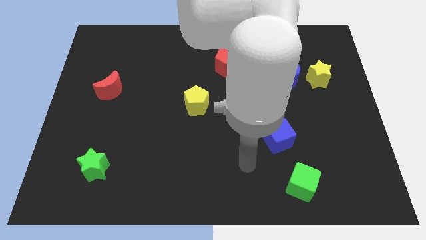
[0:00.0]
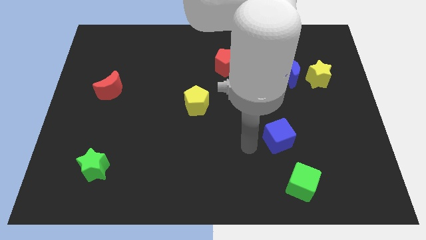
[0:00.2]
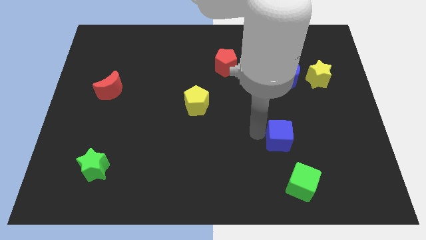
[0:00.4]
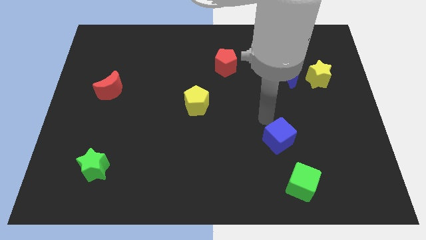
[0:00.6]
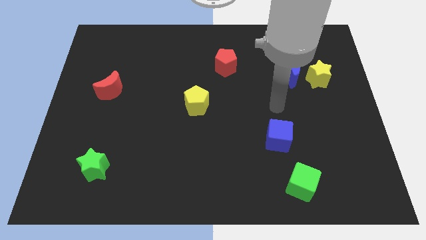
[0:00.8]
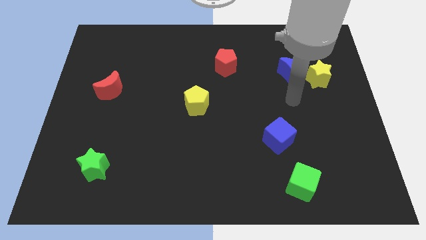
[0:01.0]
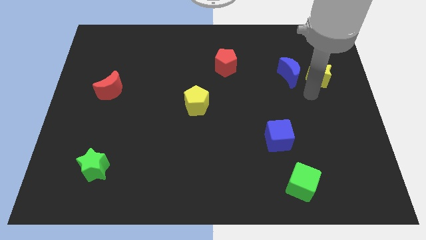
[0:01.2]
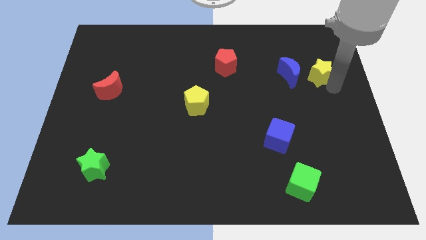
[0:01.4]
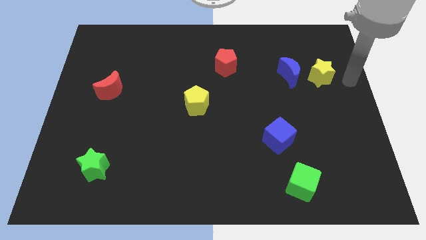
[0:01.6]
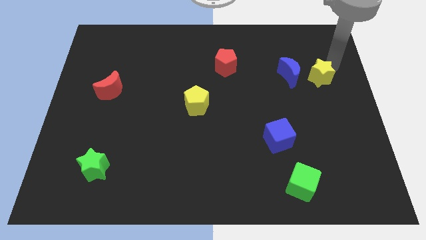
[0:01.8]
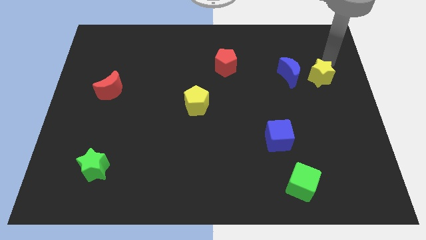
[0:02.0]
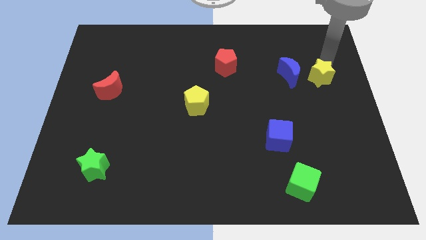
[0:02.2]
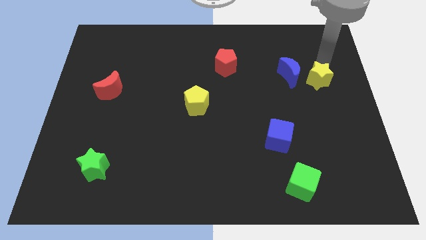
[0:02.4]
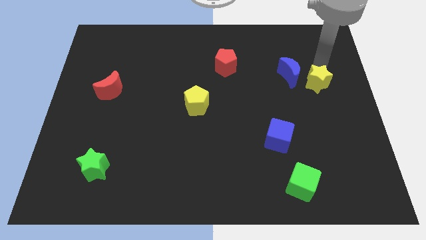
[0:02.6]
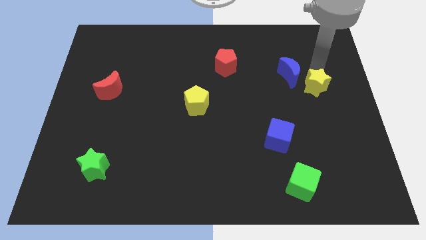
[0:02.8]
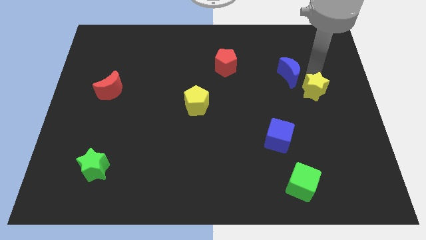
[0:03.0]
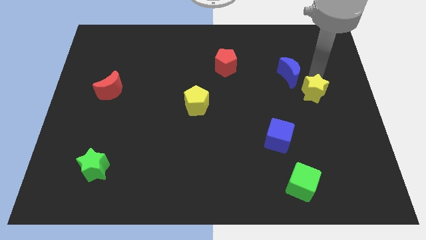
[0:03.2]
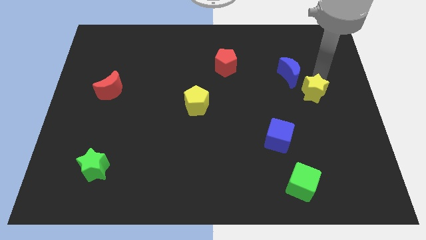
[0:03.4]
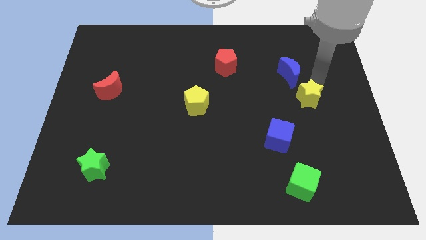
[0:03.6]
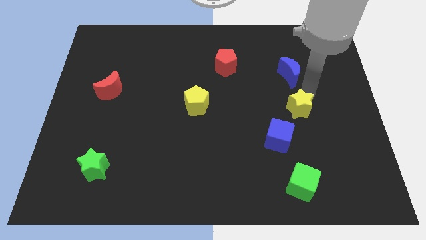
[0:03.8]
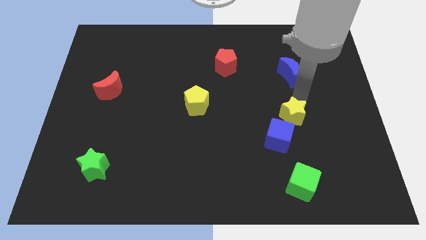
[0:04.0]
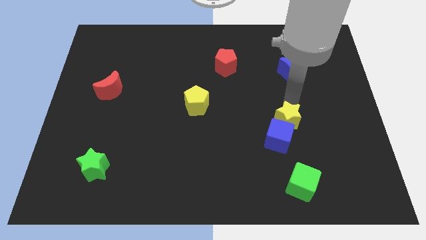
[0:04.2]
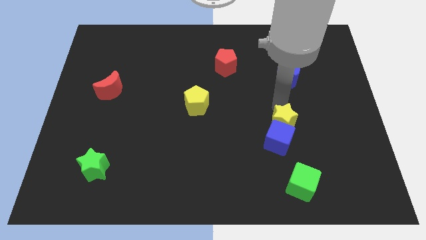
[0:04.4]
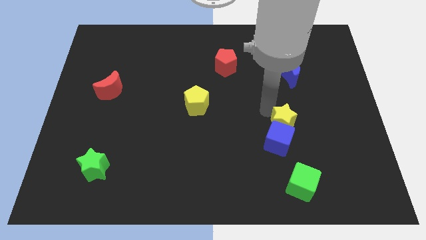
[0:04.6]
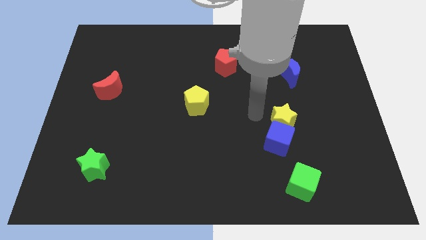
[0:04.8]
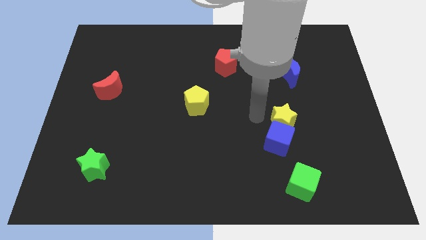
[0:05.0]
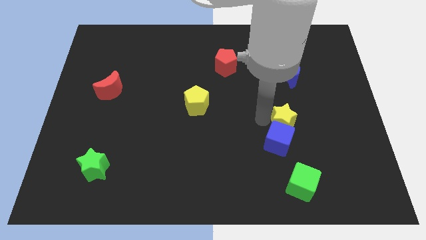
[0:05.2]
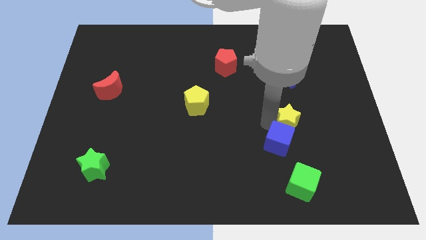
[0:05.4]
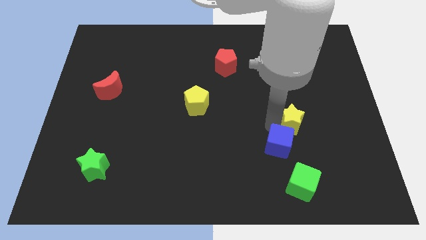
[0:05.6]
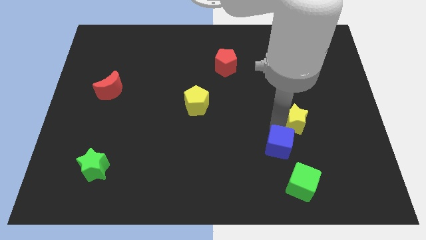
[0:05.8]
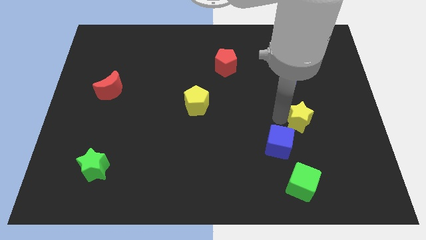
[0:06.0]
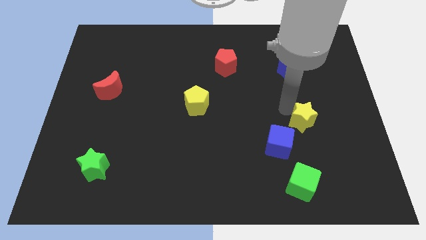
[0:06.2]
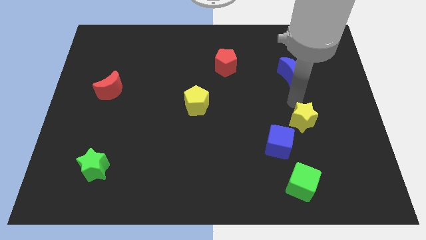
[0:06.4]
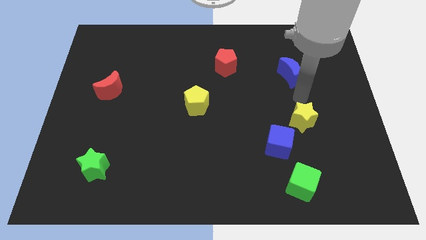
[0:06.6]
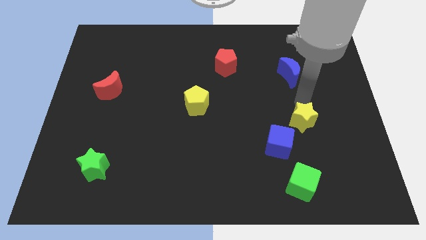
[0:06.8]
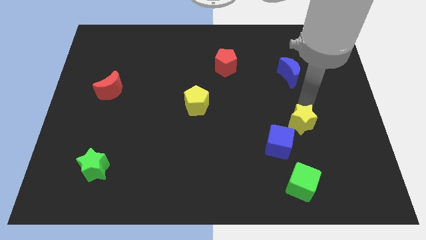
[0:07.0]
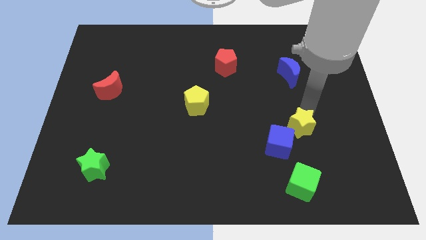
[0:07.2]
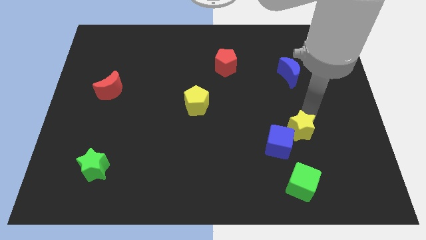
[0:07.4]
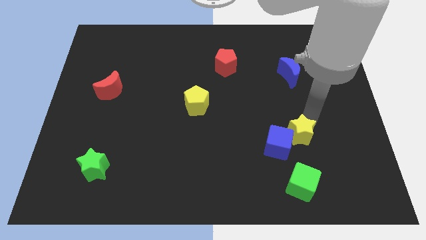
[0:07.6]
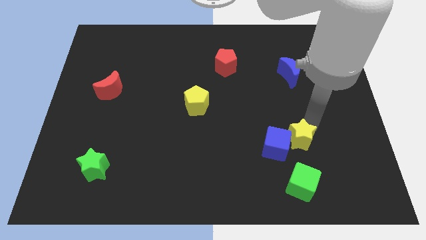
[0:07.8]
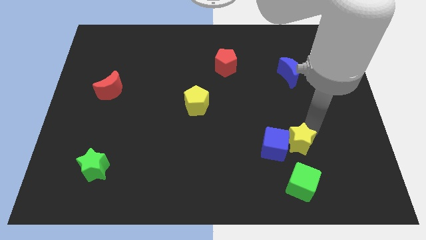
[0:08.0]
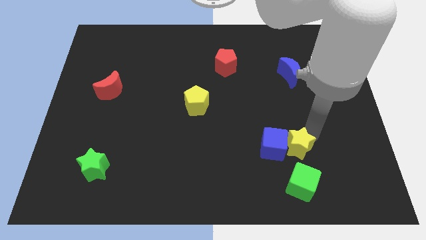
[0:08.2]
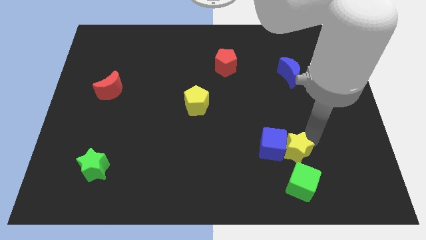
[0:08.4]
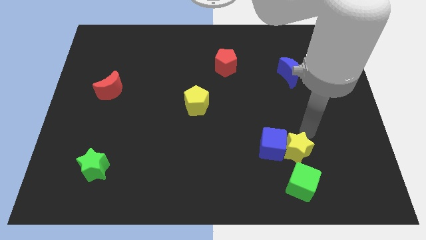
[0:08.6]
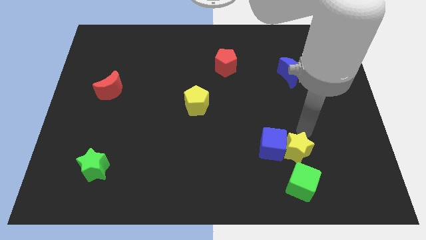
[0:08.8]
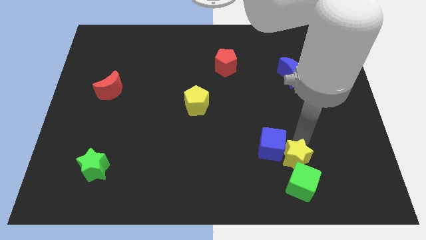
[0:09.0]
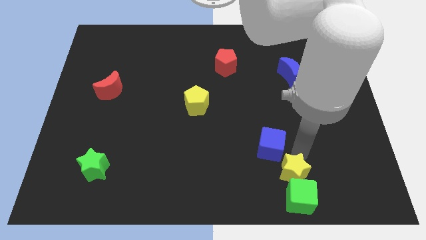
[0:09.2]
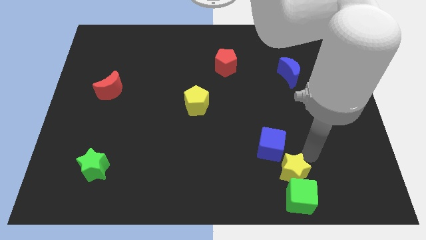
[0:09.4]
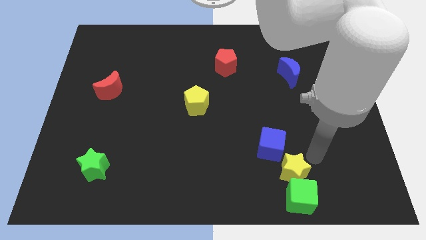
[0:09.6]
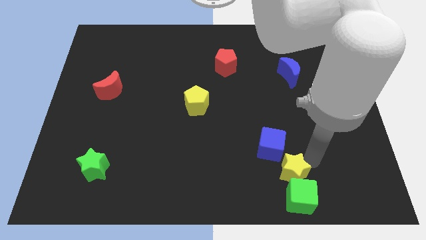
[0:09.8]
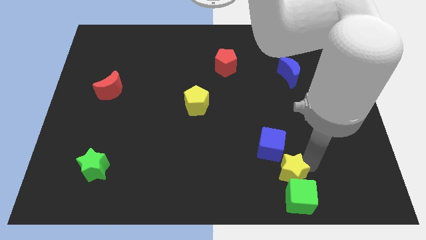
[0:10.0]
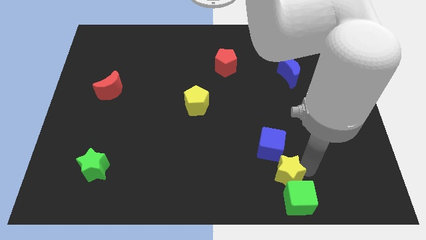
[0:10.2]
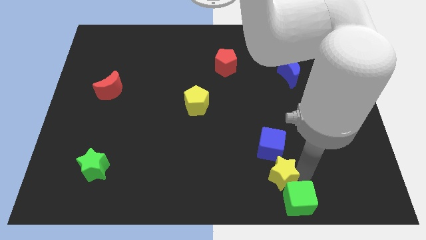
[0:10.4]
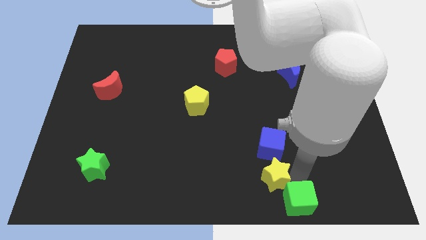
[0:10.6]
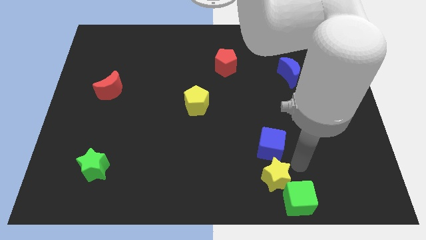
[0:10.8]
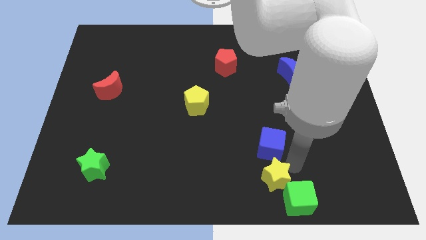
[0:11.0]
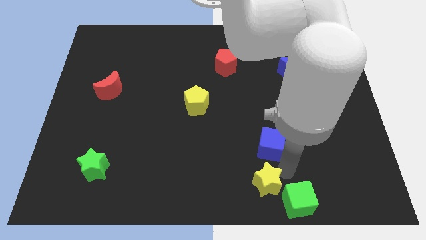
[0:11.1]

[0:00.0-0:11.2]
put the yellow star to the left side of the green cube

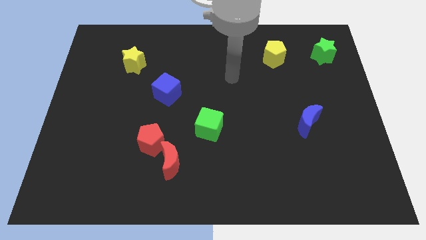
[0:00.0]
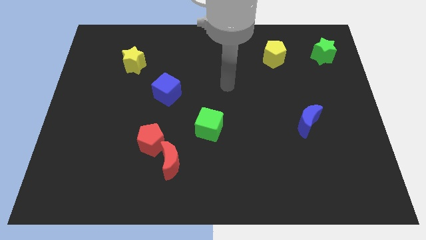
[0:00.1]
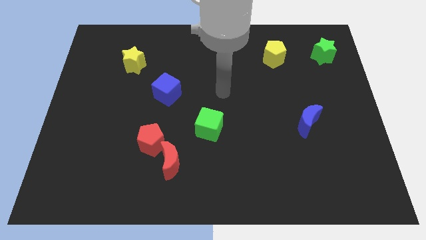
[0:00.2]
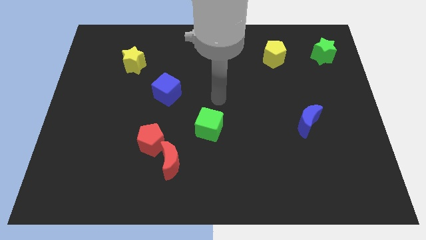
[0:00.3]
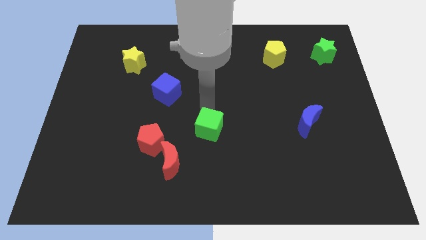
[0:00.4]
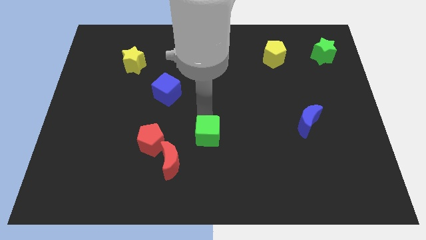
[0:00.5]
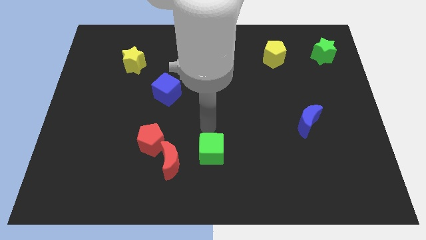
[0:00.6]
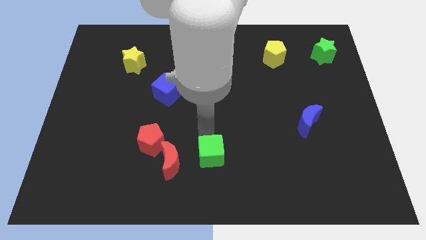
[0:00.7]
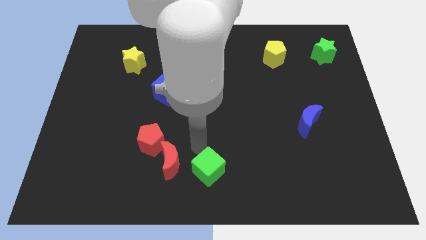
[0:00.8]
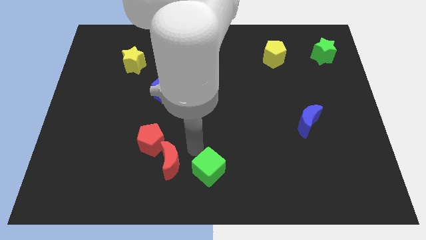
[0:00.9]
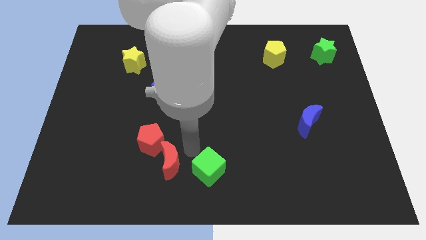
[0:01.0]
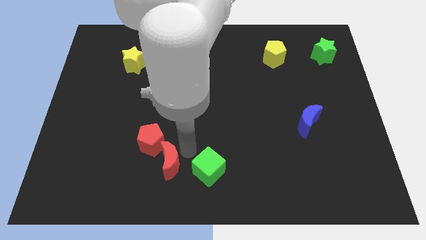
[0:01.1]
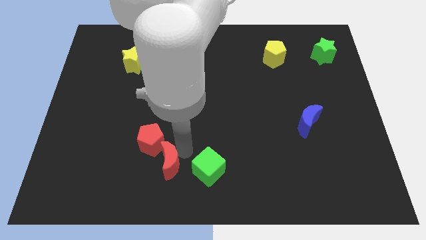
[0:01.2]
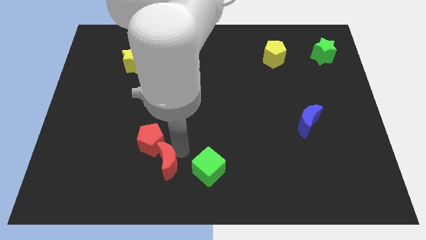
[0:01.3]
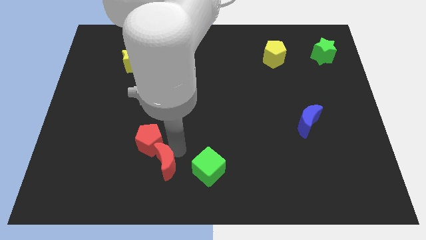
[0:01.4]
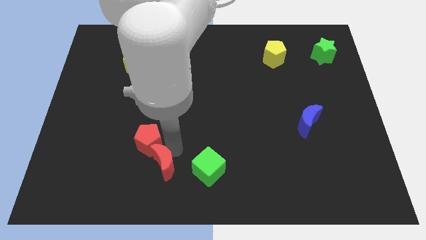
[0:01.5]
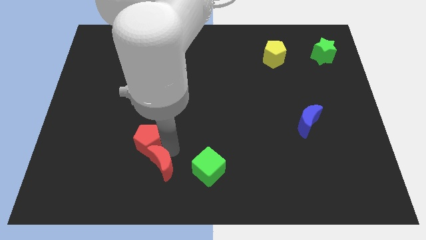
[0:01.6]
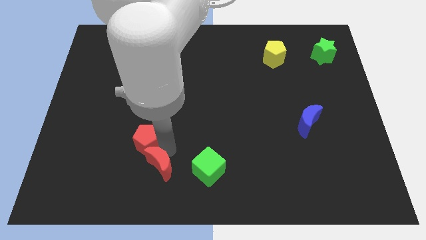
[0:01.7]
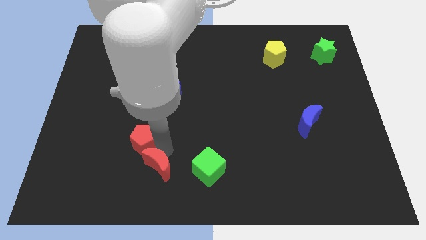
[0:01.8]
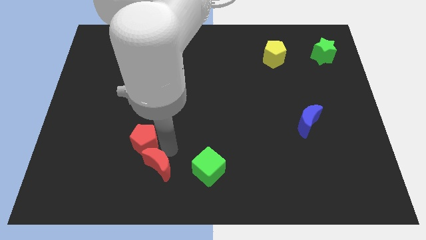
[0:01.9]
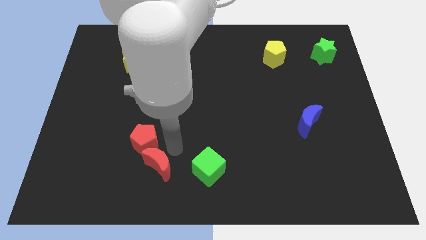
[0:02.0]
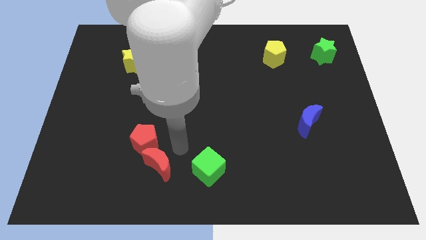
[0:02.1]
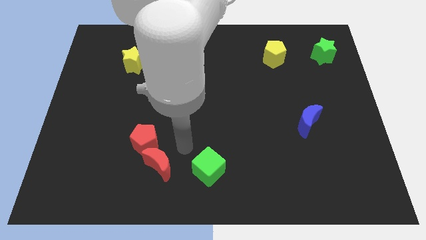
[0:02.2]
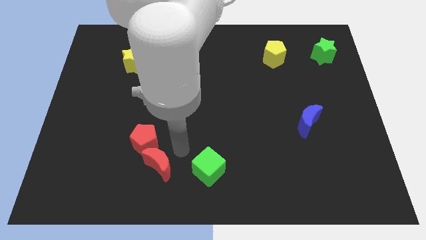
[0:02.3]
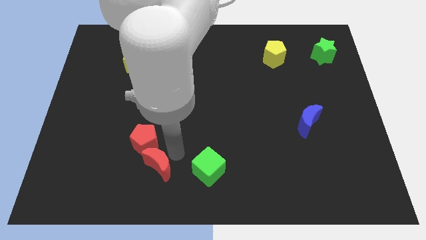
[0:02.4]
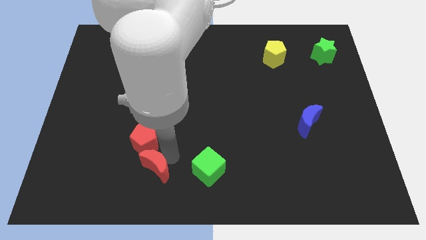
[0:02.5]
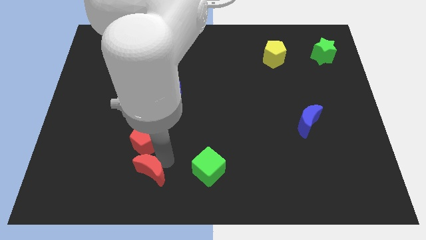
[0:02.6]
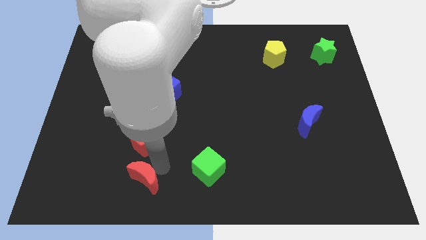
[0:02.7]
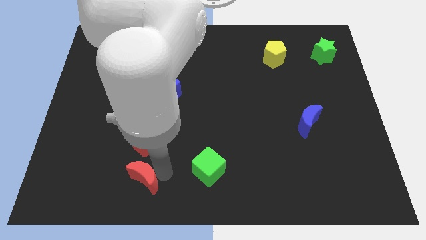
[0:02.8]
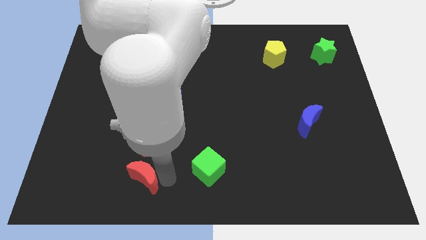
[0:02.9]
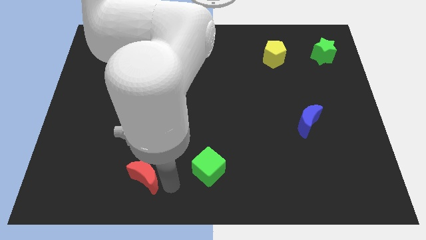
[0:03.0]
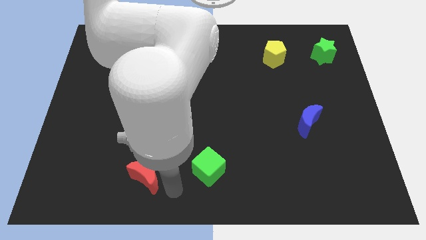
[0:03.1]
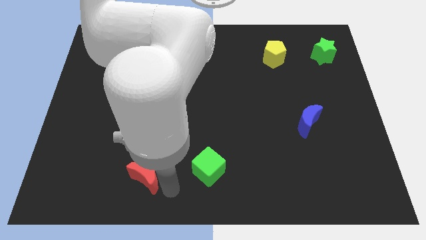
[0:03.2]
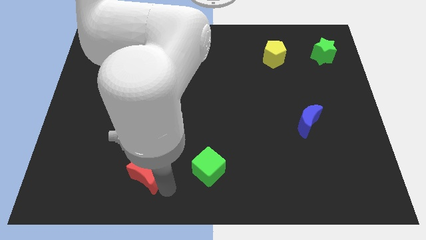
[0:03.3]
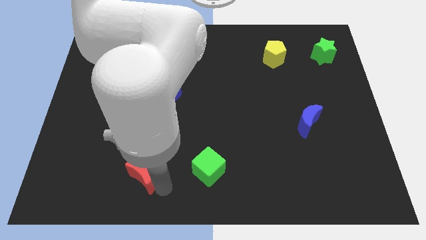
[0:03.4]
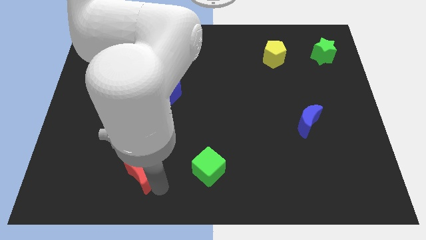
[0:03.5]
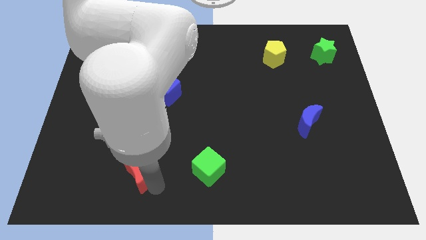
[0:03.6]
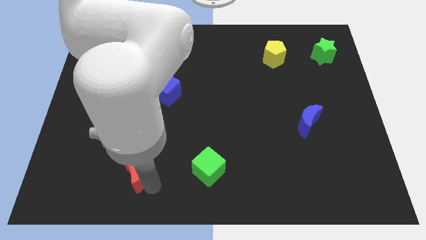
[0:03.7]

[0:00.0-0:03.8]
slide the red moon to the bottom left side of the red pentagon
